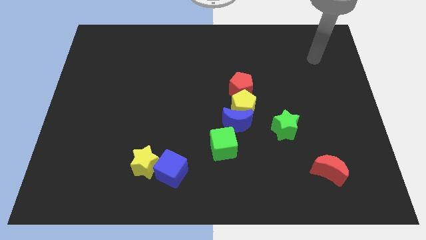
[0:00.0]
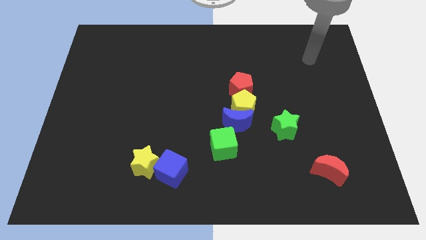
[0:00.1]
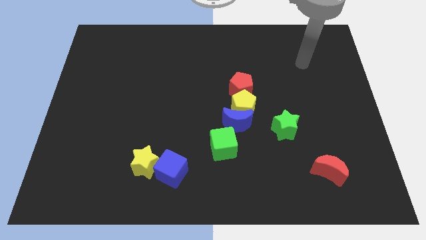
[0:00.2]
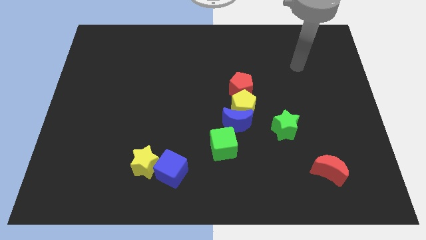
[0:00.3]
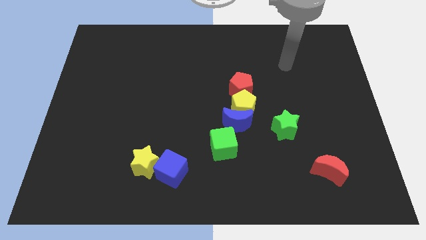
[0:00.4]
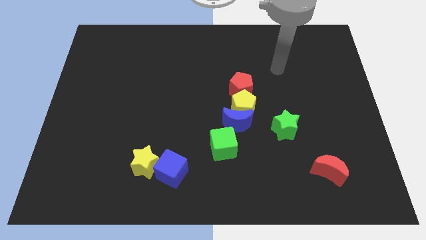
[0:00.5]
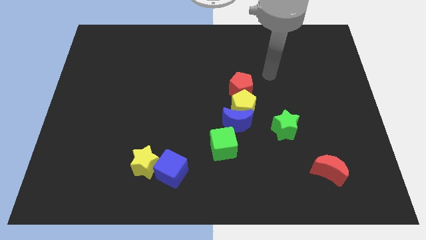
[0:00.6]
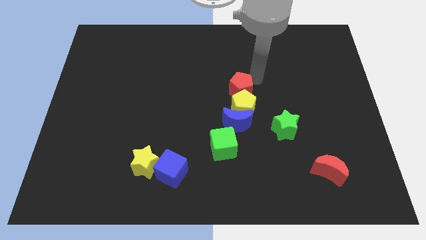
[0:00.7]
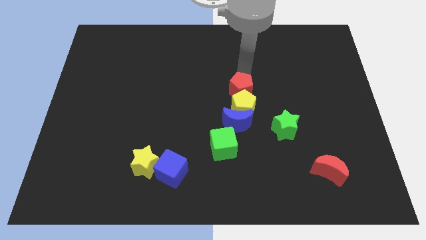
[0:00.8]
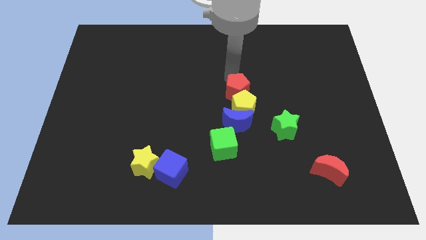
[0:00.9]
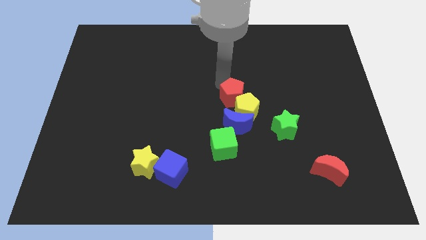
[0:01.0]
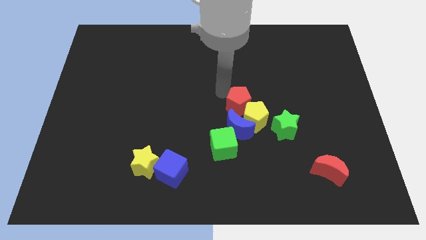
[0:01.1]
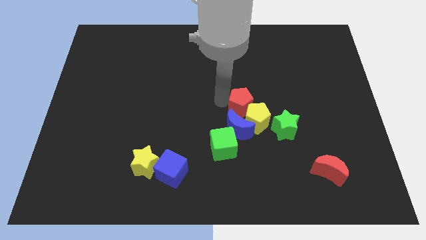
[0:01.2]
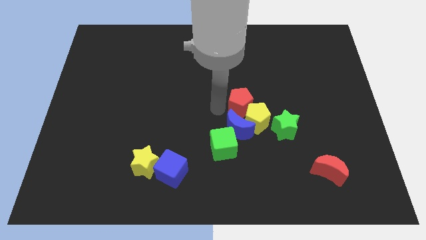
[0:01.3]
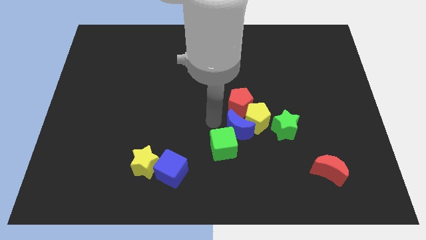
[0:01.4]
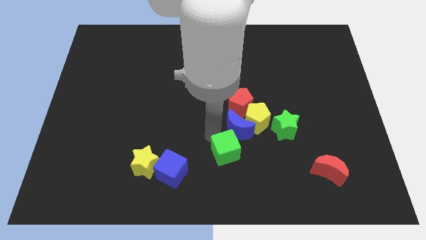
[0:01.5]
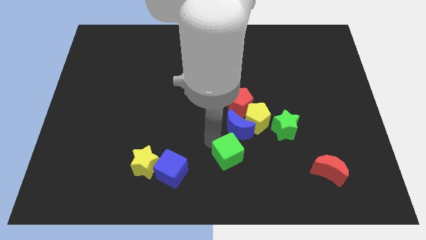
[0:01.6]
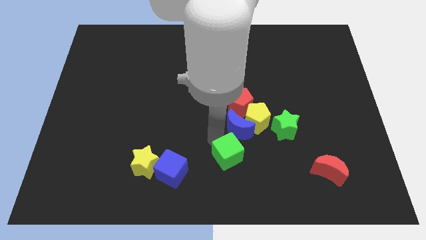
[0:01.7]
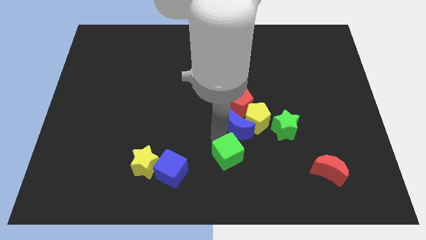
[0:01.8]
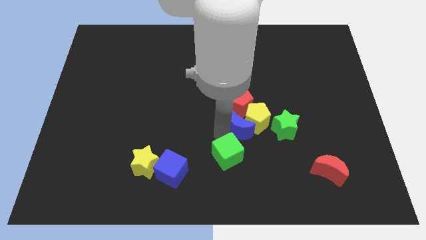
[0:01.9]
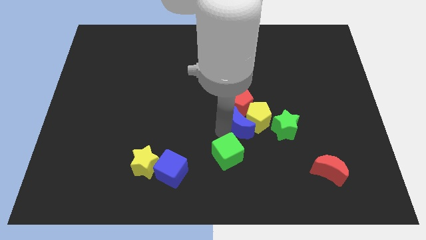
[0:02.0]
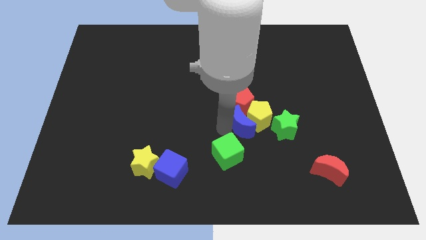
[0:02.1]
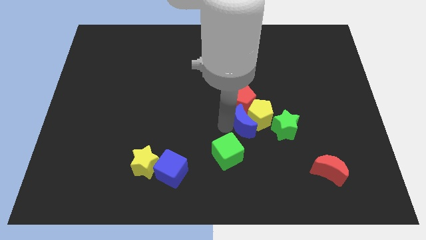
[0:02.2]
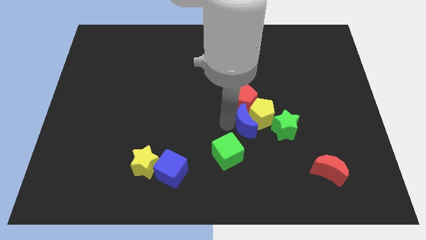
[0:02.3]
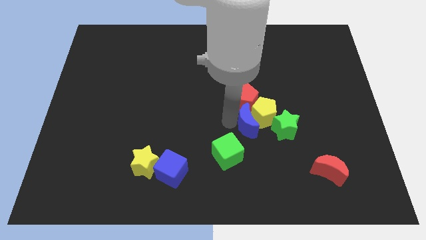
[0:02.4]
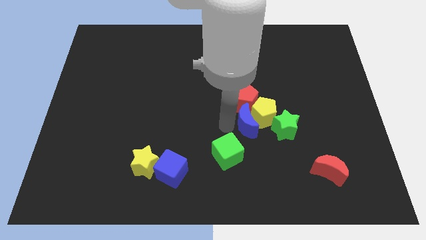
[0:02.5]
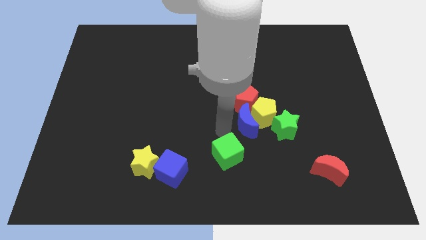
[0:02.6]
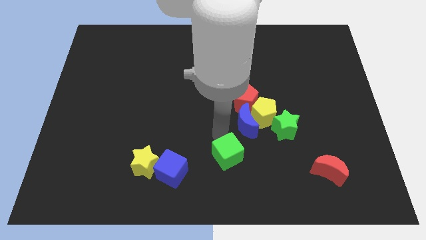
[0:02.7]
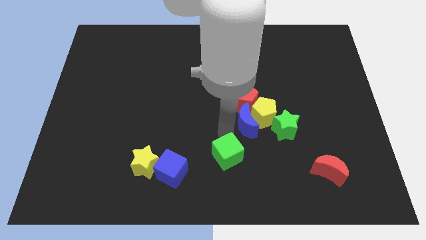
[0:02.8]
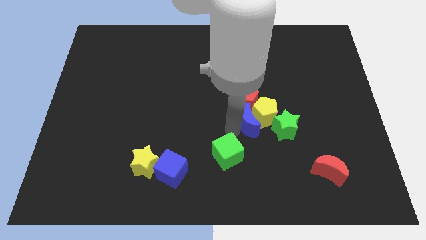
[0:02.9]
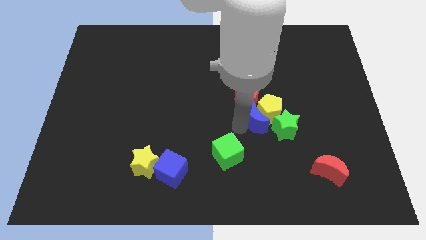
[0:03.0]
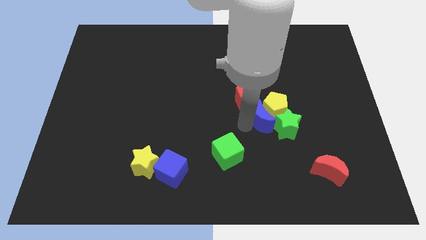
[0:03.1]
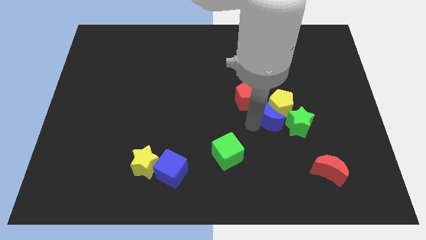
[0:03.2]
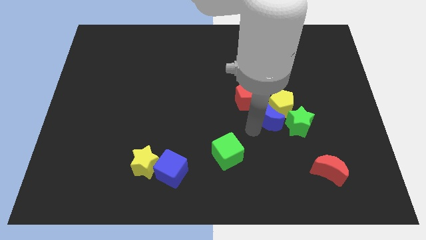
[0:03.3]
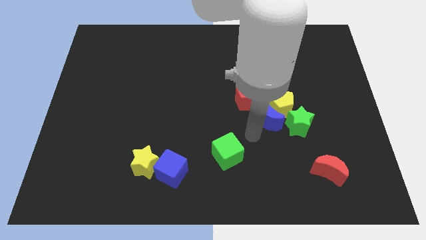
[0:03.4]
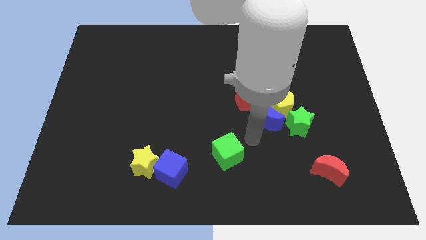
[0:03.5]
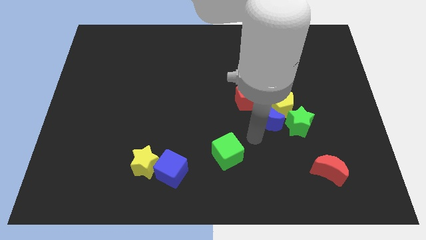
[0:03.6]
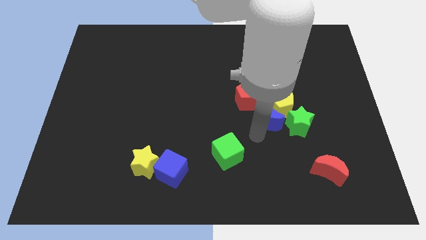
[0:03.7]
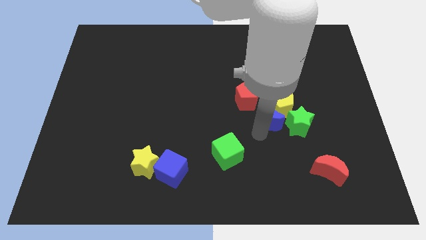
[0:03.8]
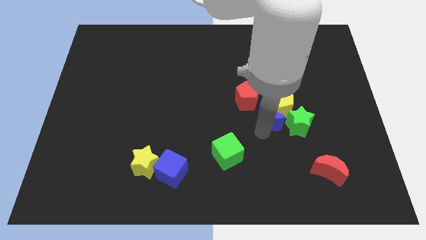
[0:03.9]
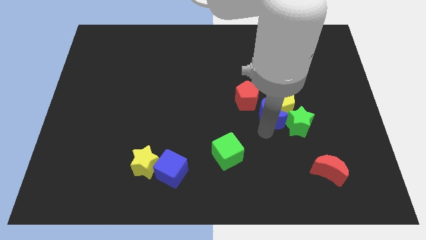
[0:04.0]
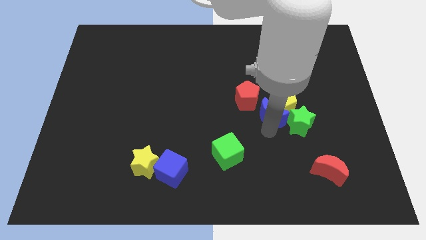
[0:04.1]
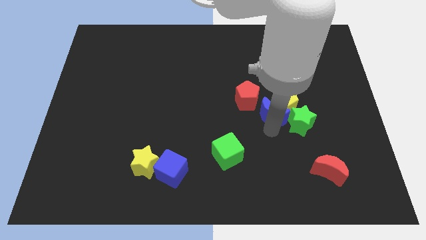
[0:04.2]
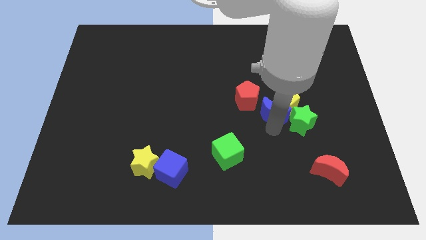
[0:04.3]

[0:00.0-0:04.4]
move the blue moon a bit upwards and right diagonally

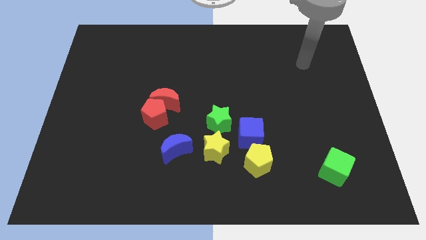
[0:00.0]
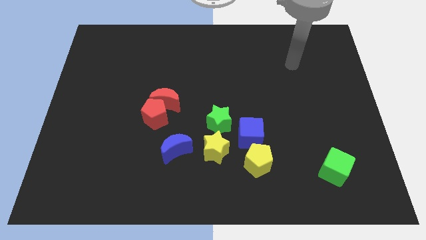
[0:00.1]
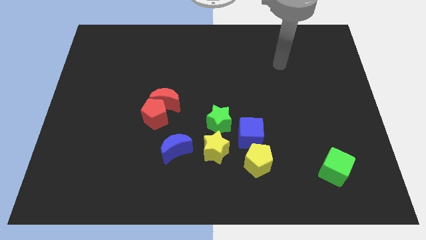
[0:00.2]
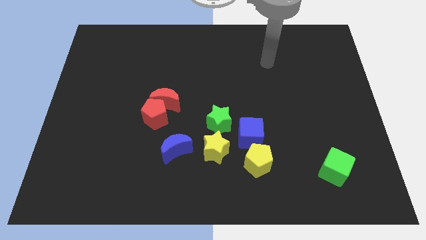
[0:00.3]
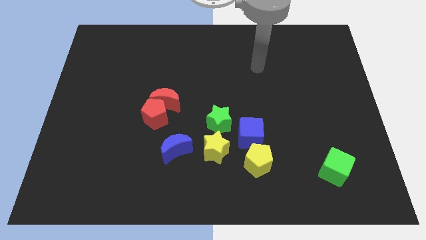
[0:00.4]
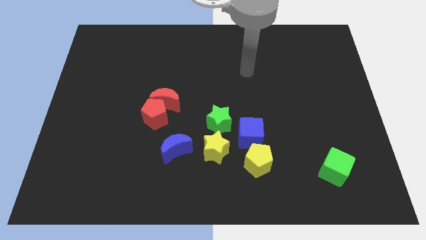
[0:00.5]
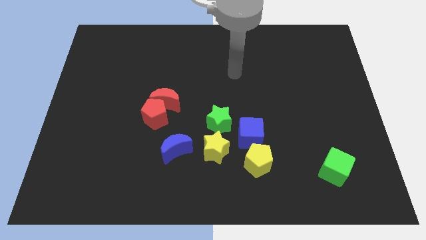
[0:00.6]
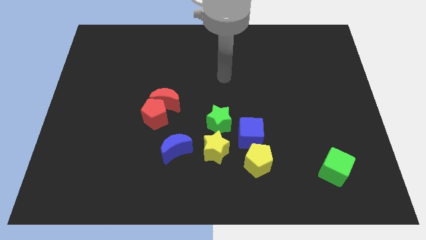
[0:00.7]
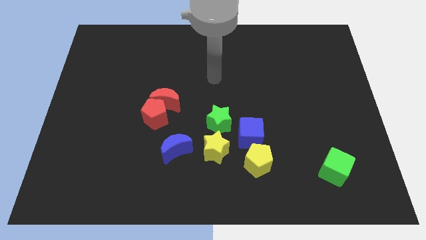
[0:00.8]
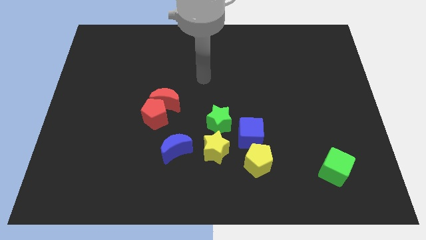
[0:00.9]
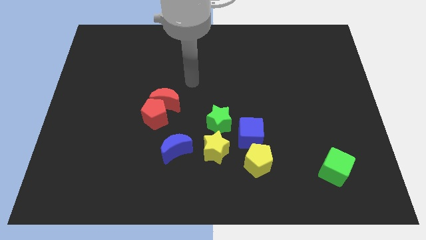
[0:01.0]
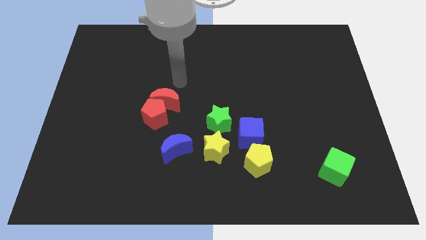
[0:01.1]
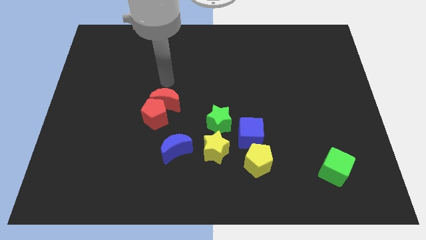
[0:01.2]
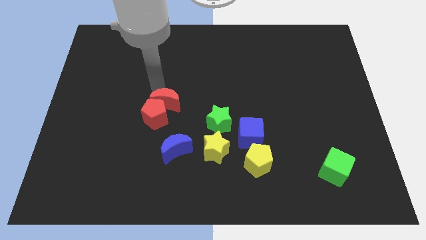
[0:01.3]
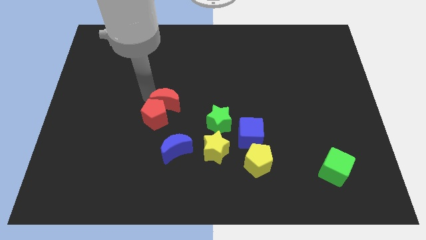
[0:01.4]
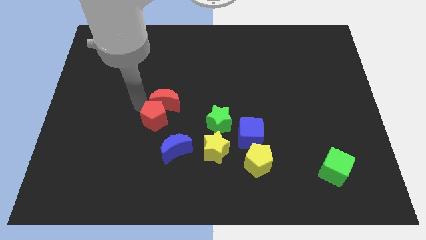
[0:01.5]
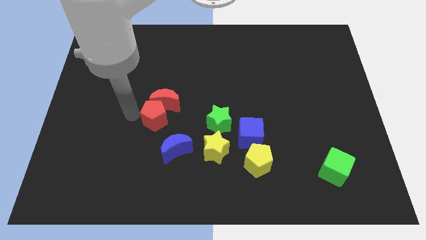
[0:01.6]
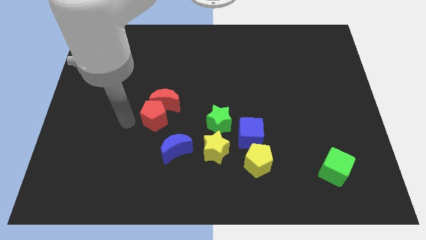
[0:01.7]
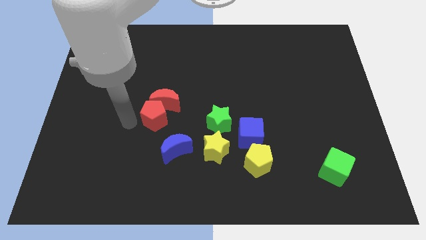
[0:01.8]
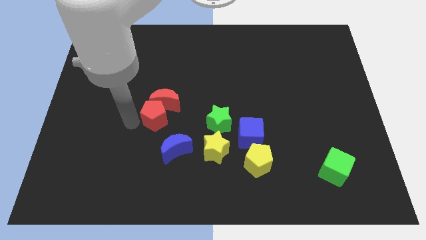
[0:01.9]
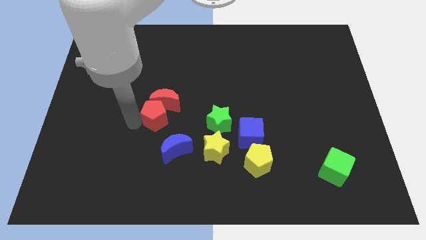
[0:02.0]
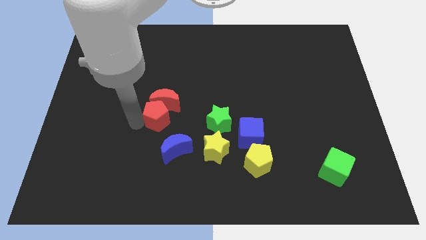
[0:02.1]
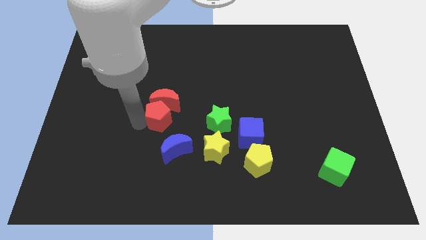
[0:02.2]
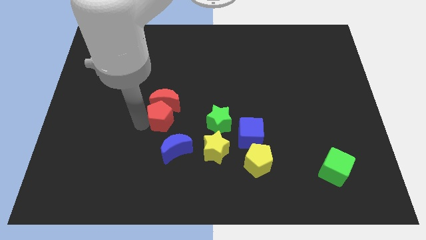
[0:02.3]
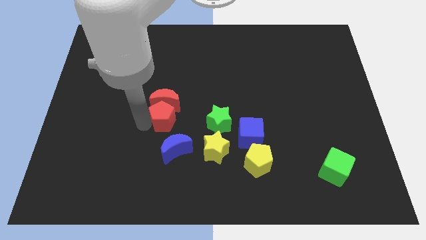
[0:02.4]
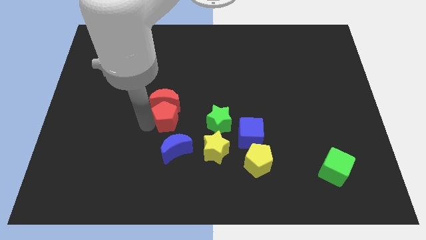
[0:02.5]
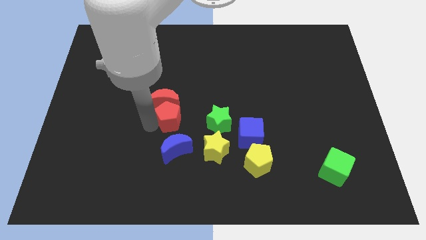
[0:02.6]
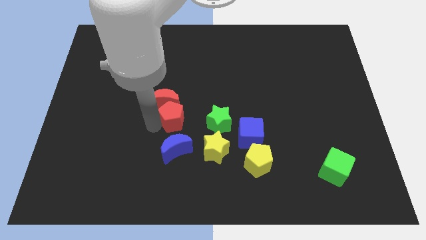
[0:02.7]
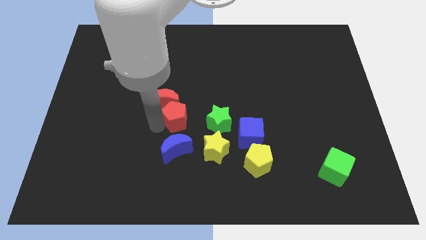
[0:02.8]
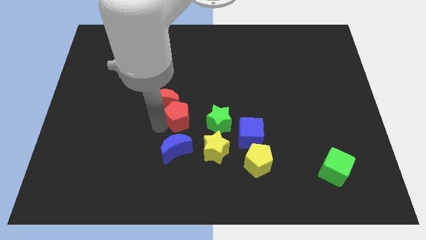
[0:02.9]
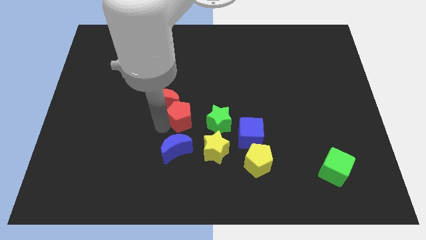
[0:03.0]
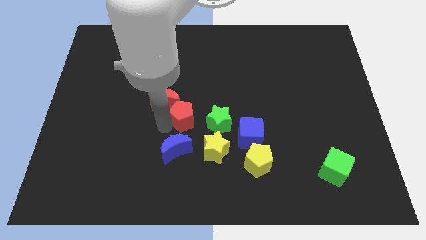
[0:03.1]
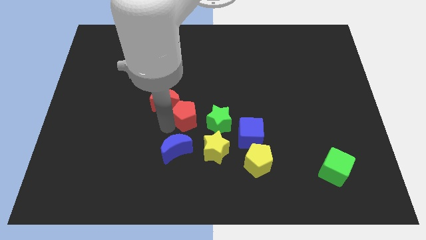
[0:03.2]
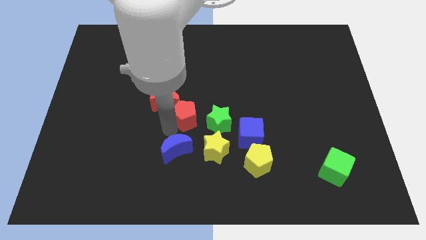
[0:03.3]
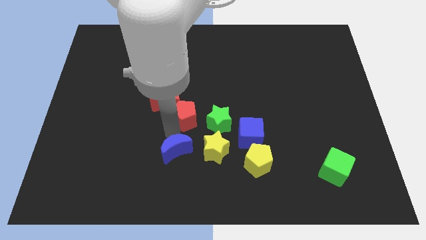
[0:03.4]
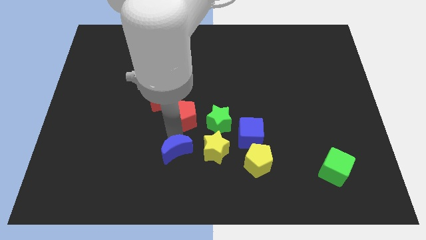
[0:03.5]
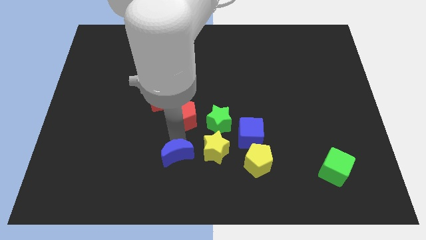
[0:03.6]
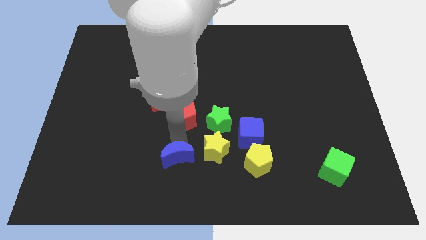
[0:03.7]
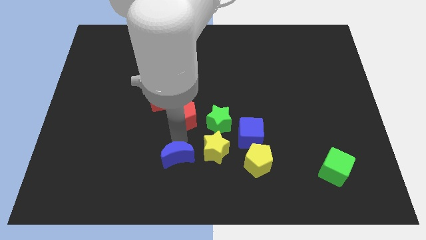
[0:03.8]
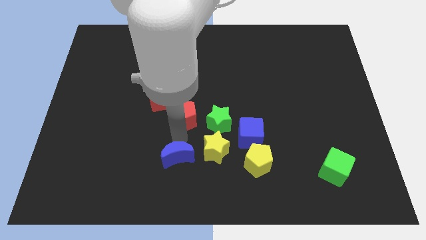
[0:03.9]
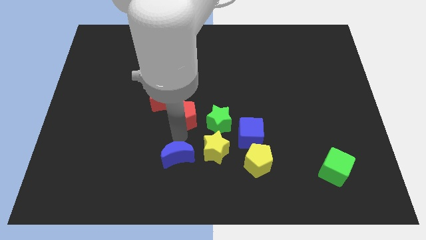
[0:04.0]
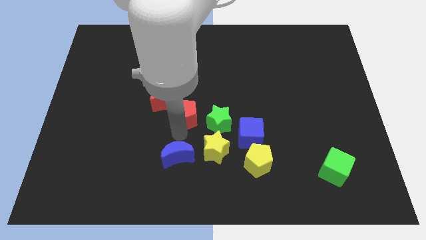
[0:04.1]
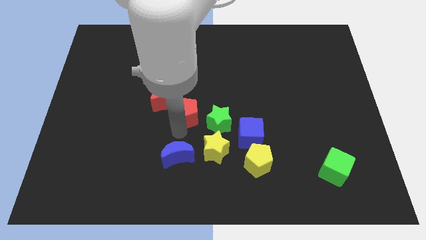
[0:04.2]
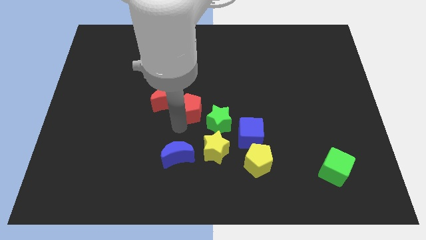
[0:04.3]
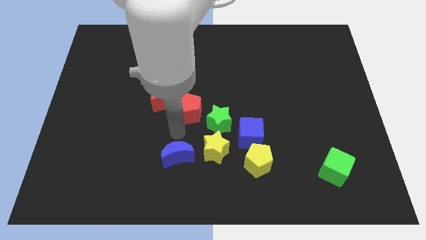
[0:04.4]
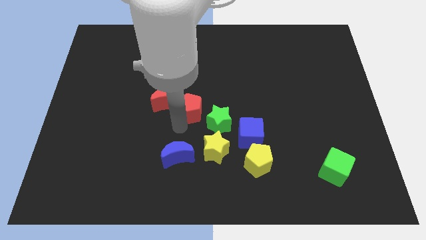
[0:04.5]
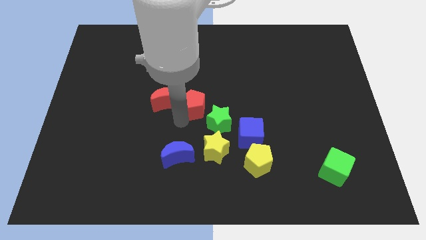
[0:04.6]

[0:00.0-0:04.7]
push the red pentagon up and to the right somewhat
